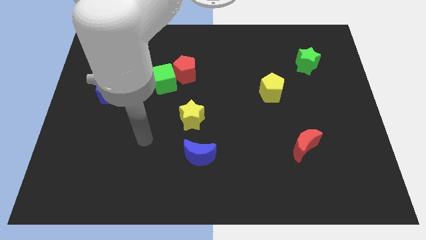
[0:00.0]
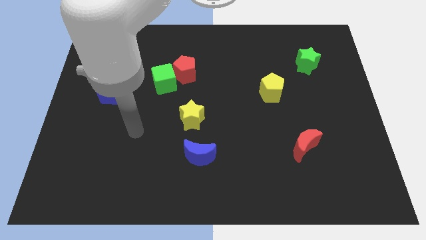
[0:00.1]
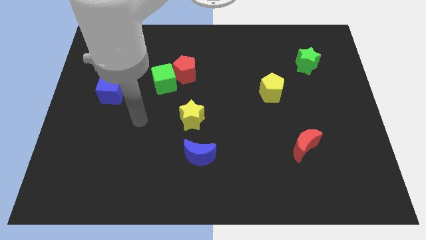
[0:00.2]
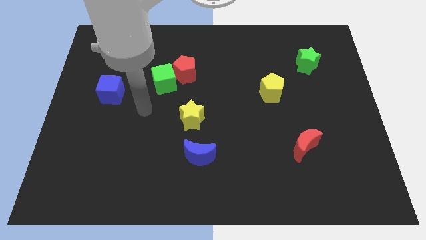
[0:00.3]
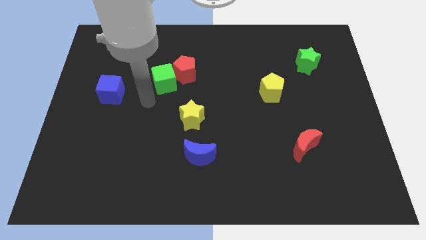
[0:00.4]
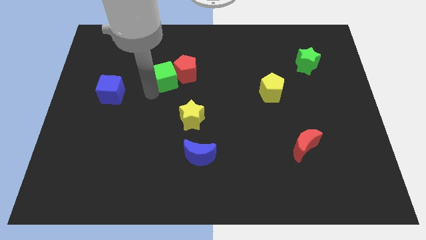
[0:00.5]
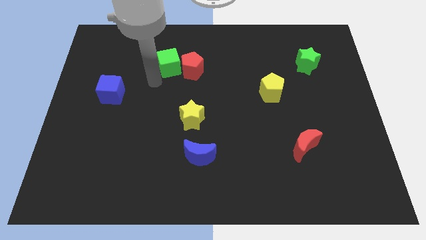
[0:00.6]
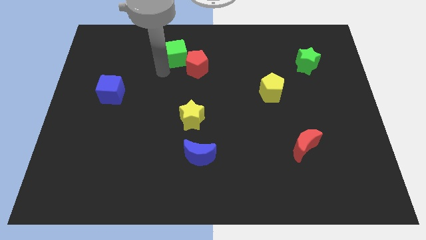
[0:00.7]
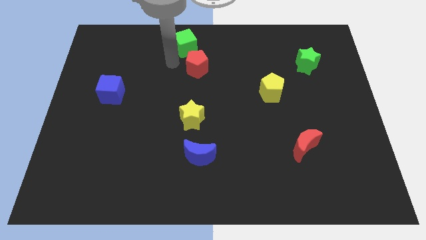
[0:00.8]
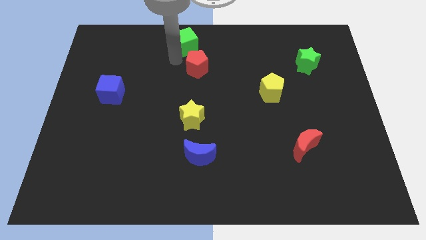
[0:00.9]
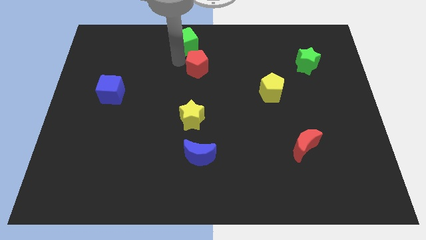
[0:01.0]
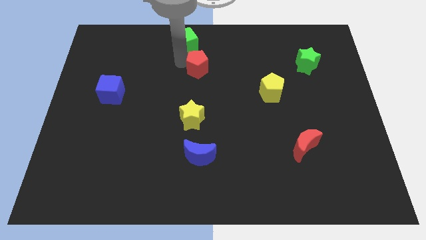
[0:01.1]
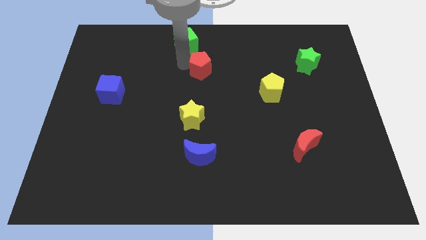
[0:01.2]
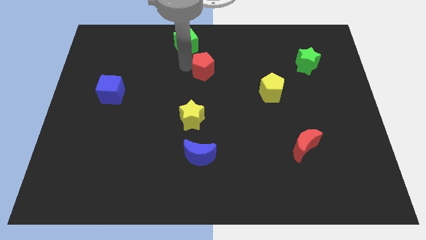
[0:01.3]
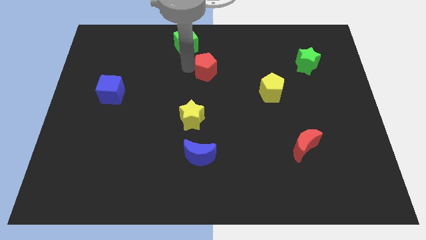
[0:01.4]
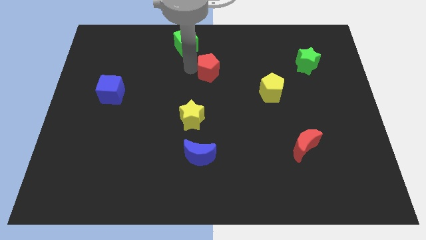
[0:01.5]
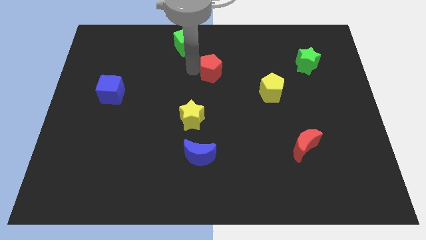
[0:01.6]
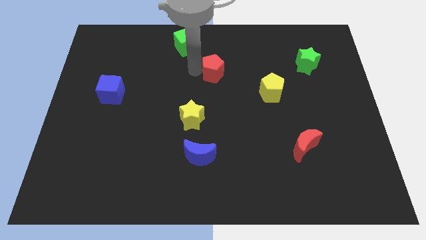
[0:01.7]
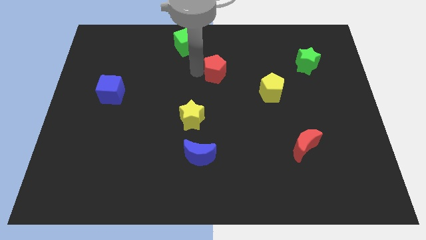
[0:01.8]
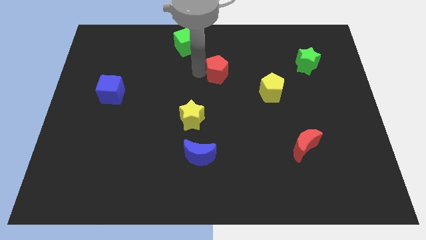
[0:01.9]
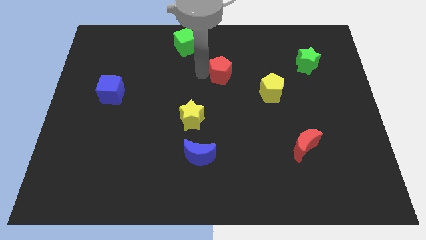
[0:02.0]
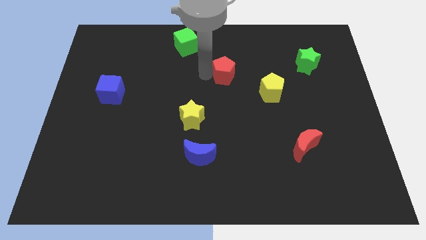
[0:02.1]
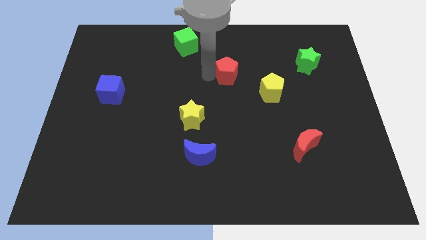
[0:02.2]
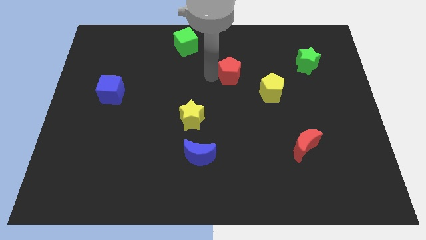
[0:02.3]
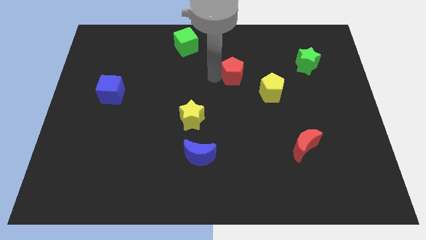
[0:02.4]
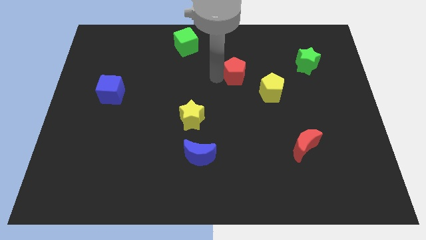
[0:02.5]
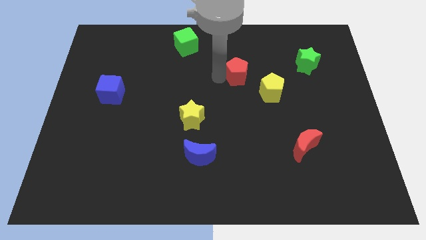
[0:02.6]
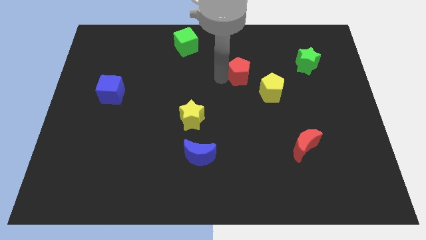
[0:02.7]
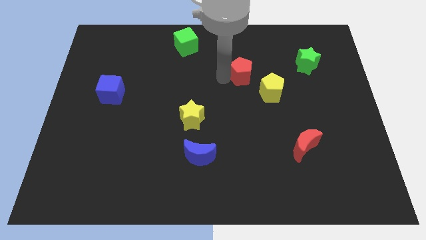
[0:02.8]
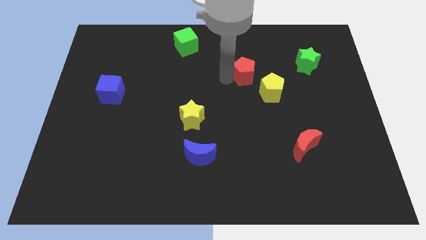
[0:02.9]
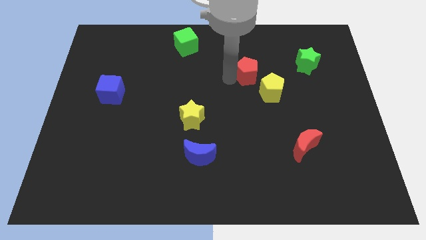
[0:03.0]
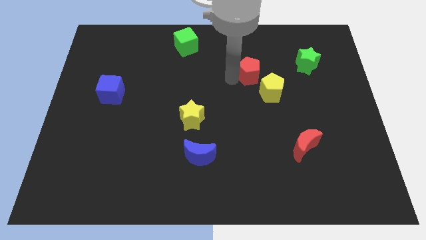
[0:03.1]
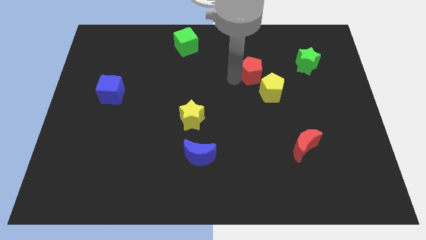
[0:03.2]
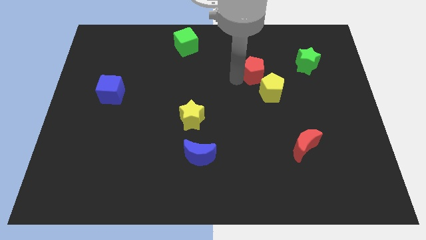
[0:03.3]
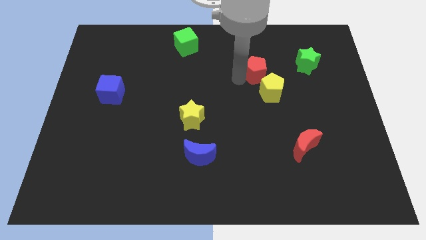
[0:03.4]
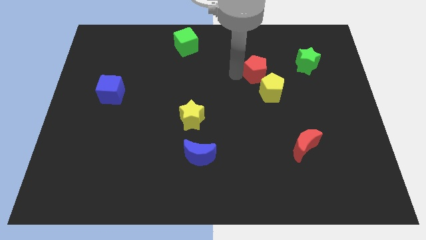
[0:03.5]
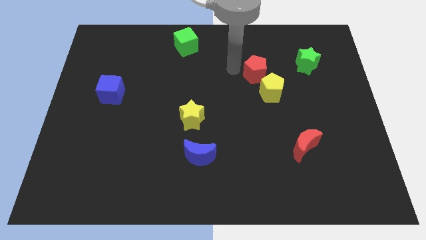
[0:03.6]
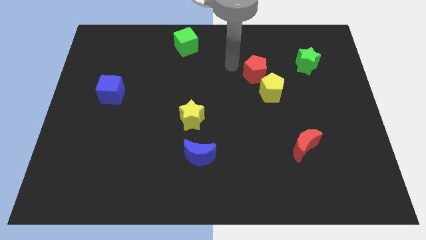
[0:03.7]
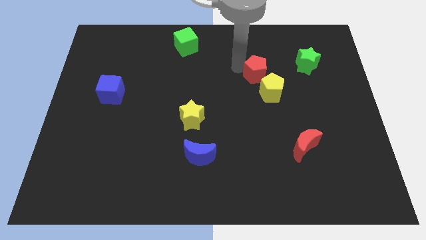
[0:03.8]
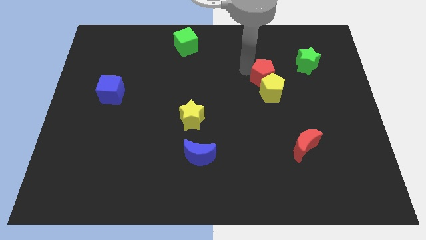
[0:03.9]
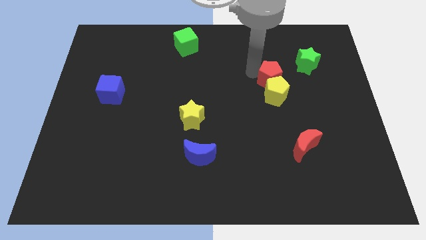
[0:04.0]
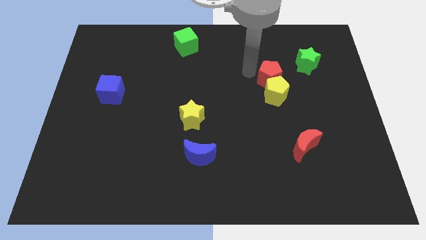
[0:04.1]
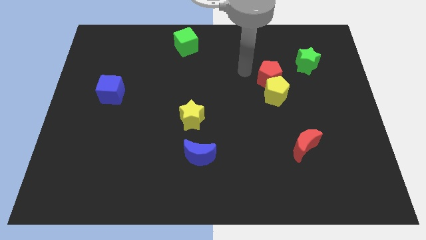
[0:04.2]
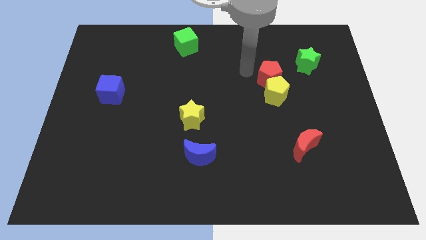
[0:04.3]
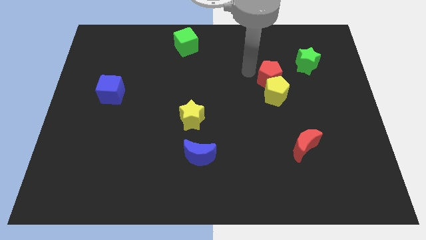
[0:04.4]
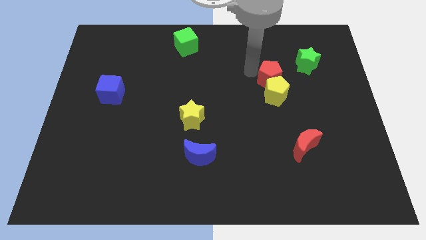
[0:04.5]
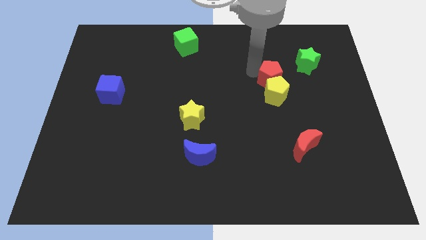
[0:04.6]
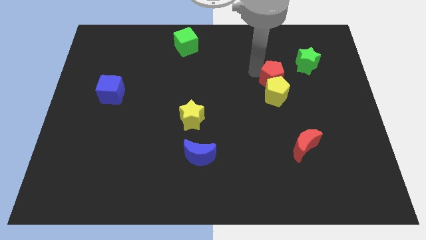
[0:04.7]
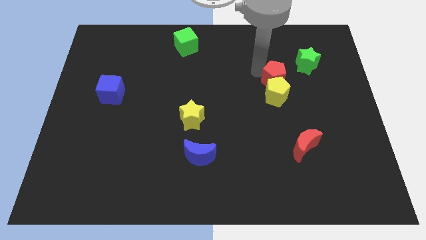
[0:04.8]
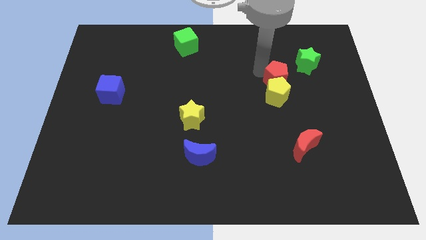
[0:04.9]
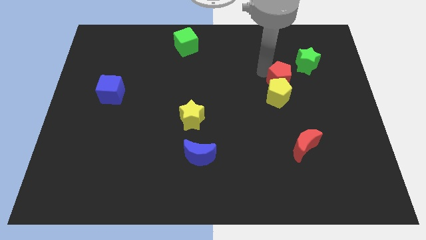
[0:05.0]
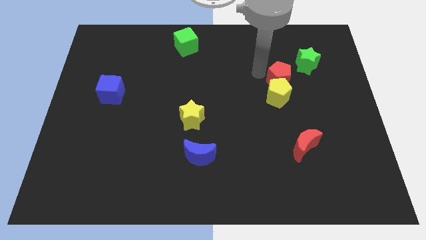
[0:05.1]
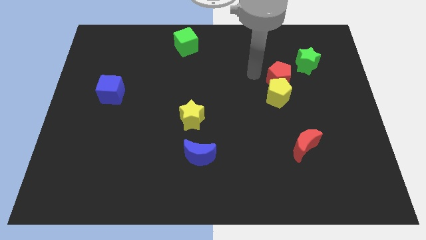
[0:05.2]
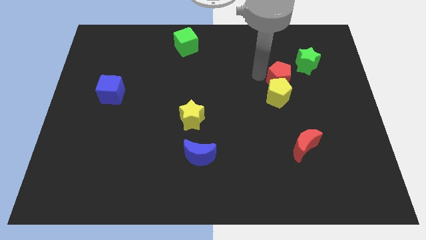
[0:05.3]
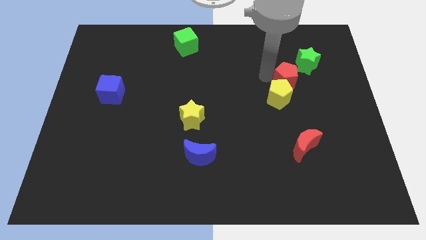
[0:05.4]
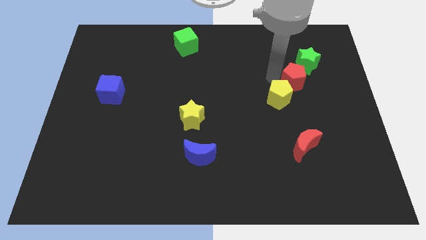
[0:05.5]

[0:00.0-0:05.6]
slide the red pentagon to the bottom of the green star

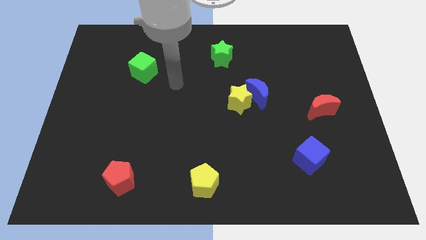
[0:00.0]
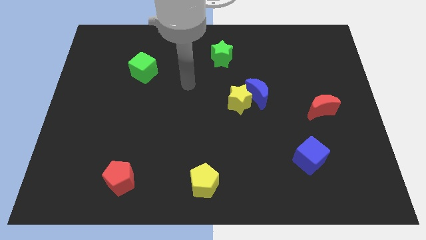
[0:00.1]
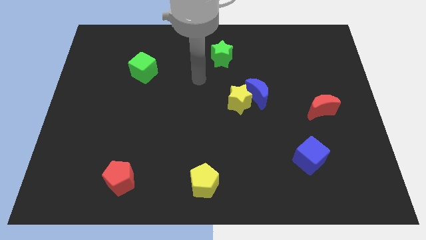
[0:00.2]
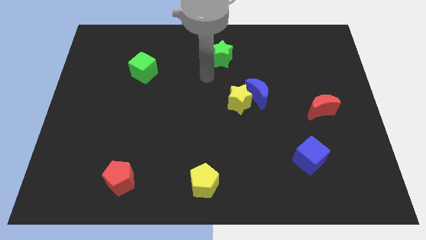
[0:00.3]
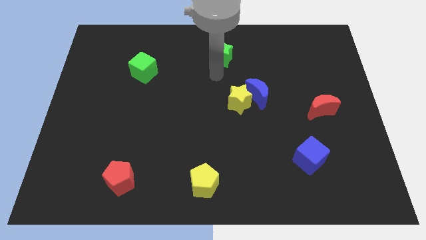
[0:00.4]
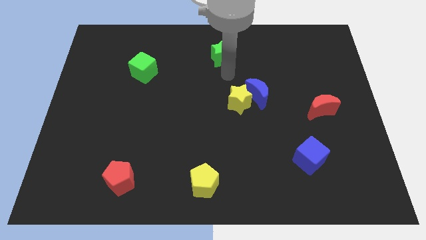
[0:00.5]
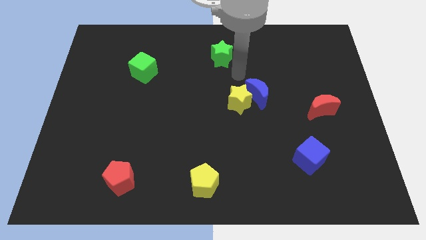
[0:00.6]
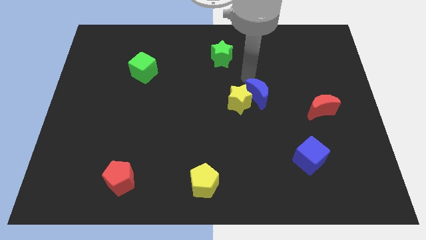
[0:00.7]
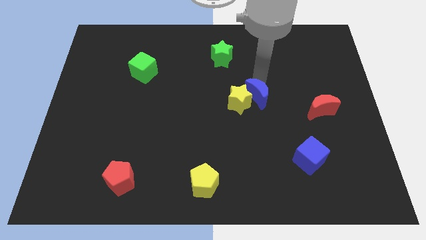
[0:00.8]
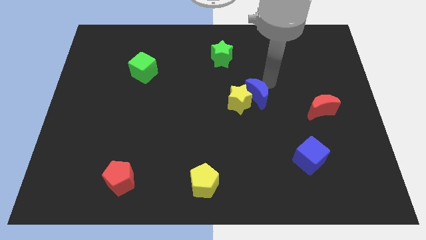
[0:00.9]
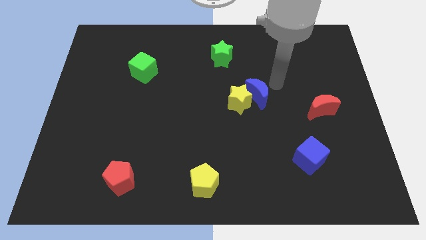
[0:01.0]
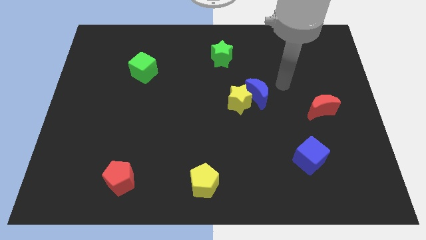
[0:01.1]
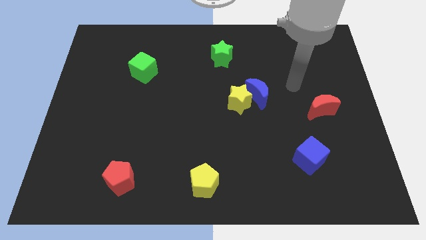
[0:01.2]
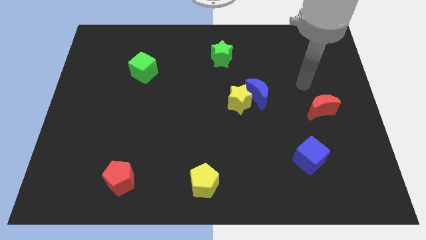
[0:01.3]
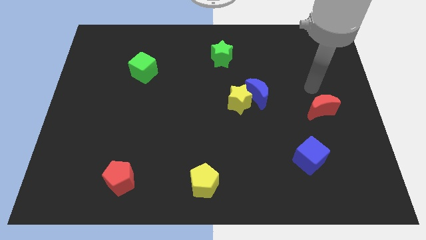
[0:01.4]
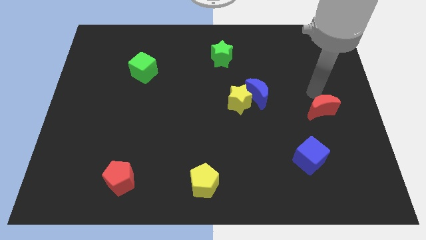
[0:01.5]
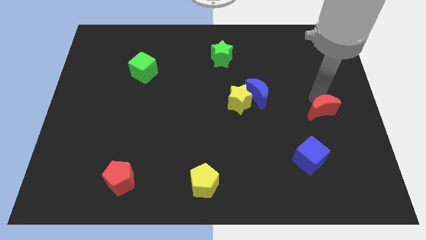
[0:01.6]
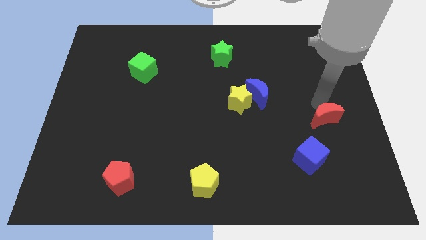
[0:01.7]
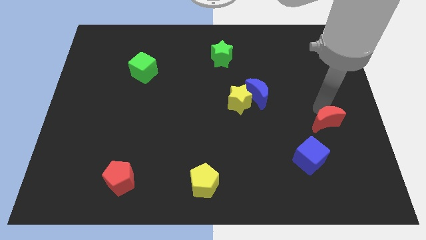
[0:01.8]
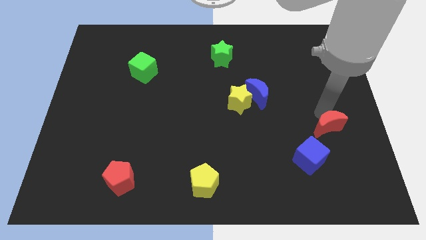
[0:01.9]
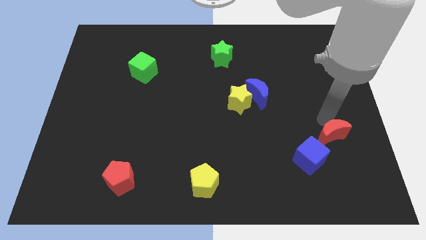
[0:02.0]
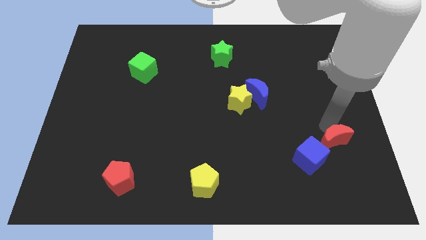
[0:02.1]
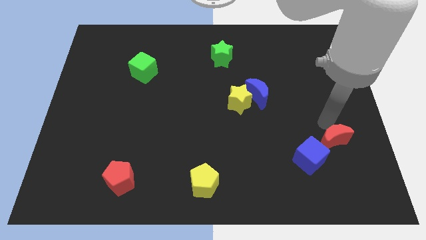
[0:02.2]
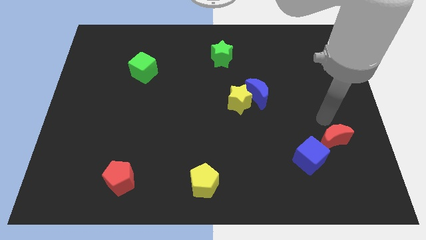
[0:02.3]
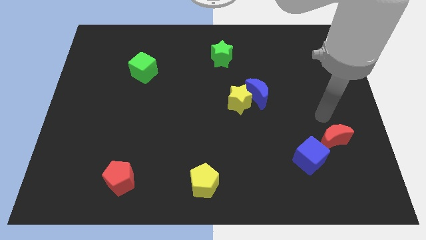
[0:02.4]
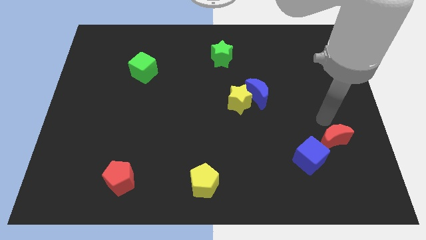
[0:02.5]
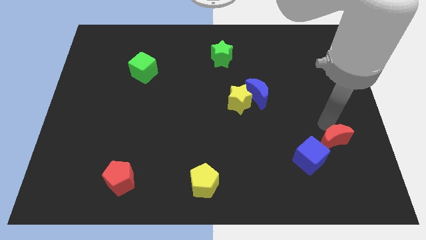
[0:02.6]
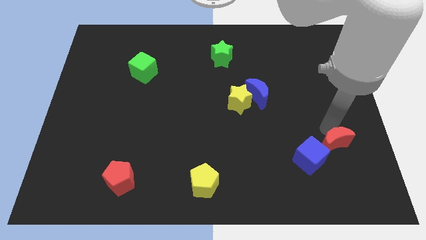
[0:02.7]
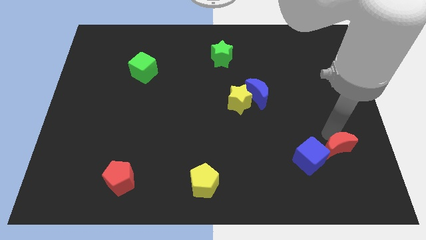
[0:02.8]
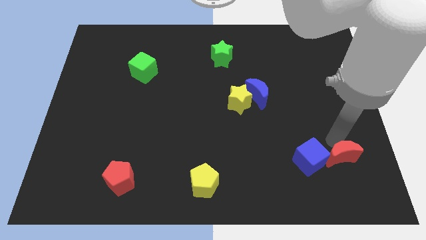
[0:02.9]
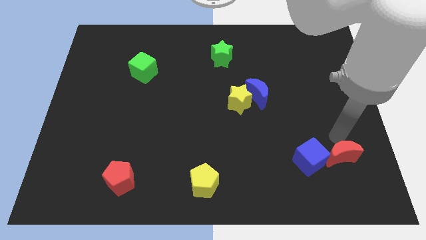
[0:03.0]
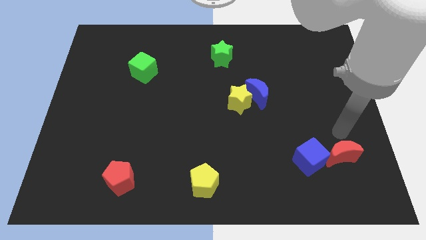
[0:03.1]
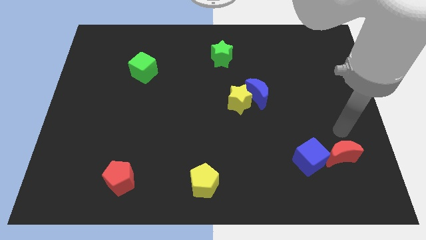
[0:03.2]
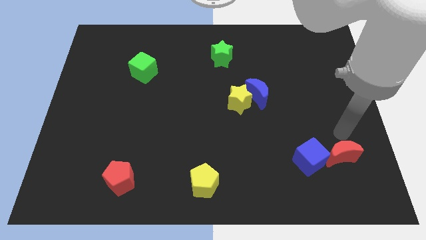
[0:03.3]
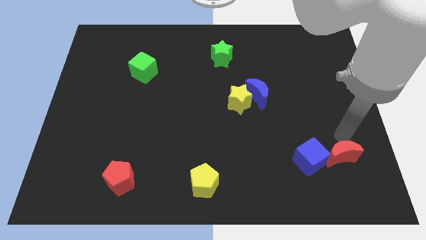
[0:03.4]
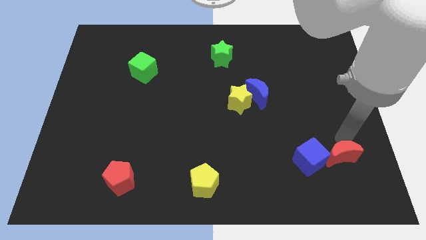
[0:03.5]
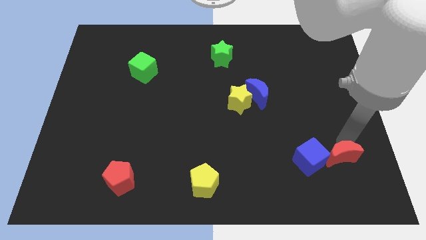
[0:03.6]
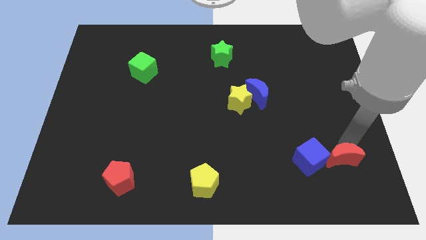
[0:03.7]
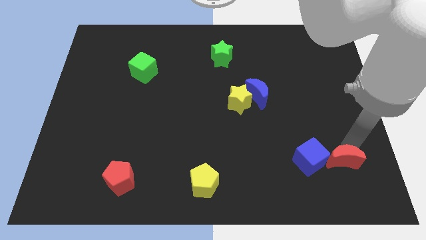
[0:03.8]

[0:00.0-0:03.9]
put the red moon diagonally down and to the right of the blue cube
